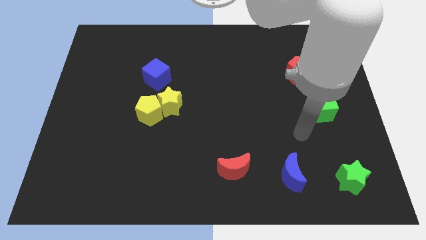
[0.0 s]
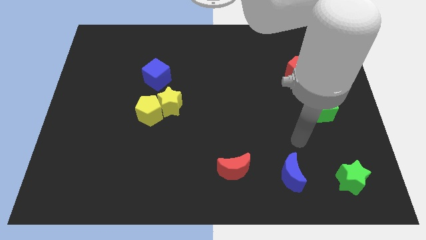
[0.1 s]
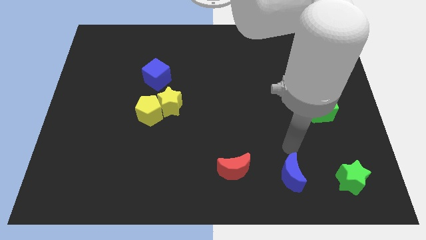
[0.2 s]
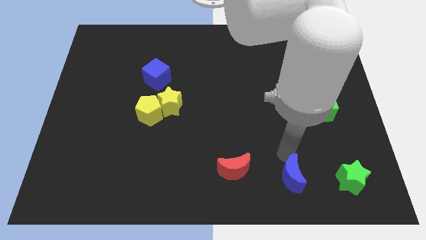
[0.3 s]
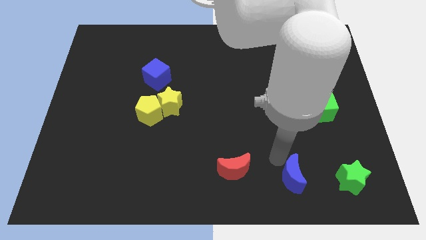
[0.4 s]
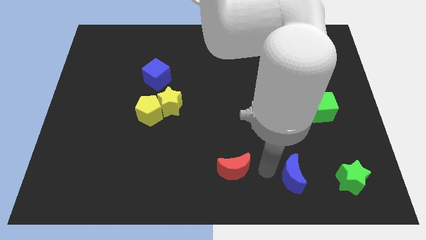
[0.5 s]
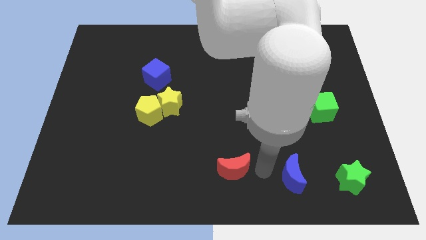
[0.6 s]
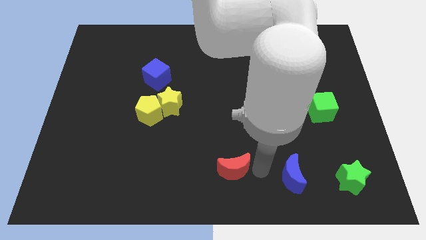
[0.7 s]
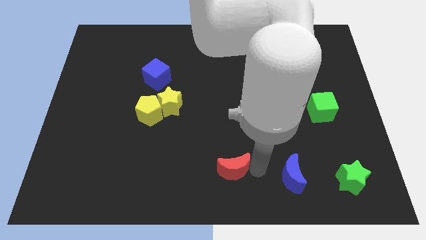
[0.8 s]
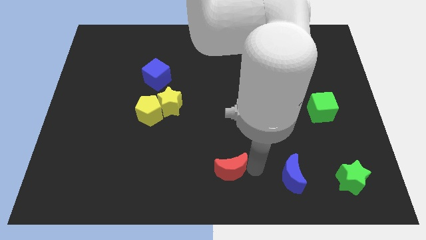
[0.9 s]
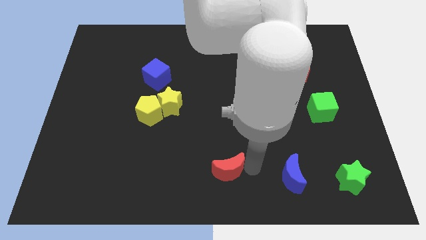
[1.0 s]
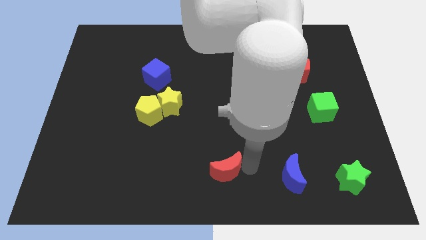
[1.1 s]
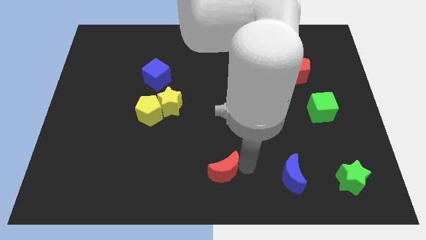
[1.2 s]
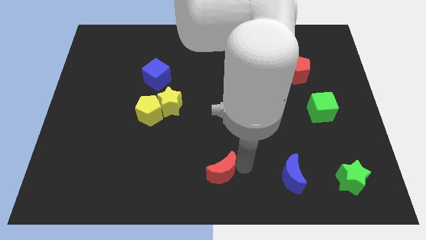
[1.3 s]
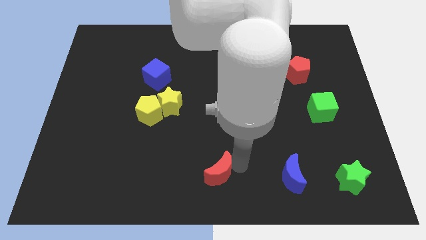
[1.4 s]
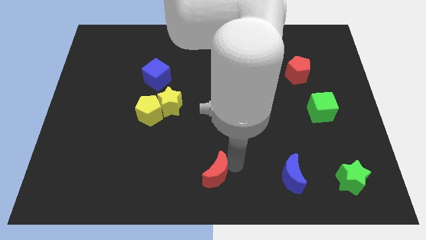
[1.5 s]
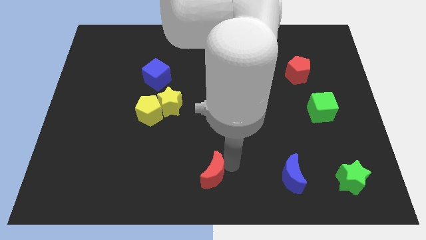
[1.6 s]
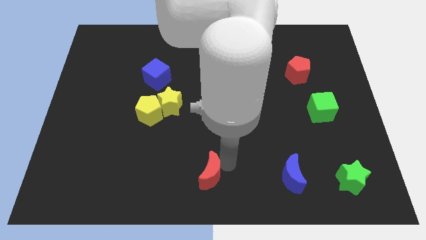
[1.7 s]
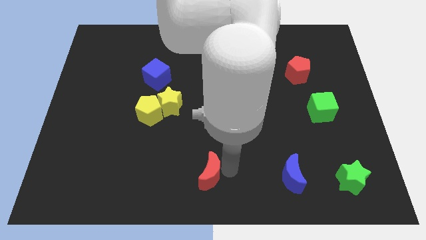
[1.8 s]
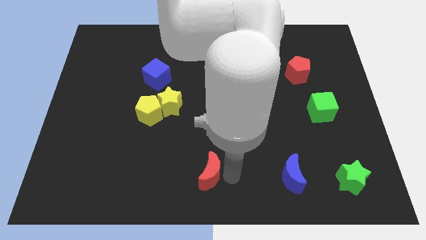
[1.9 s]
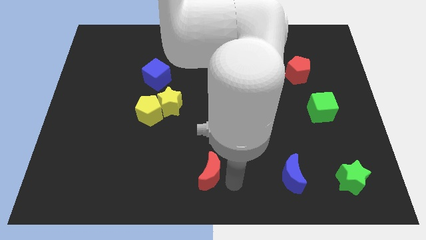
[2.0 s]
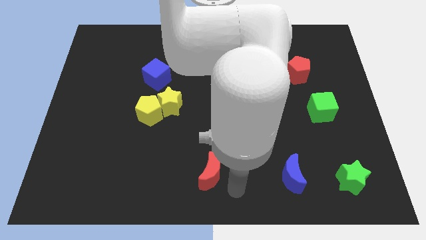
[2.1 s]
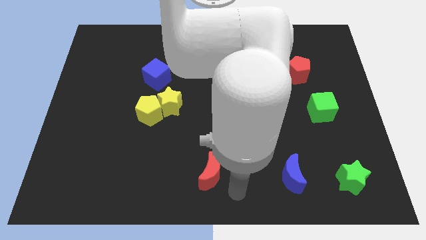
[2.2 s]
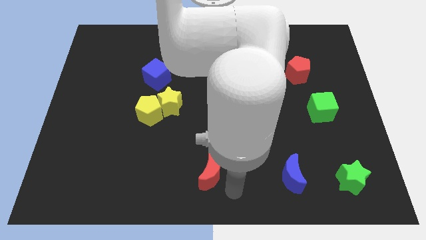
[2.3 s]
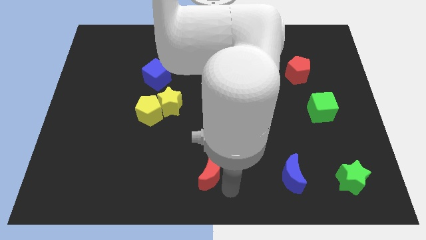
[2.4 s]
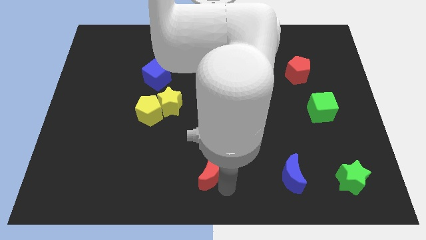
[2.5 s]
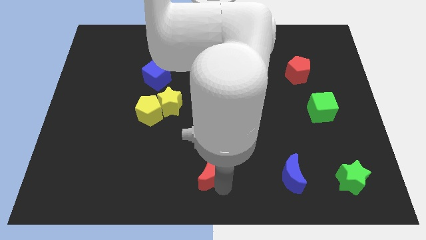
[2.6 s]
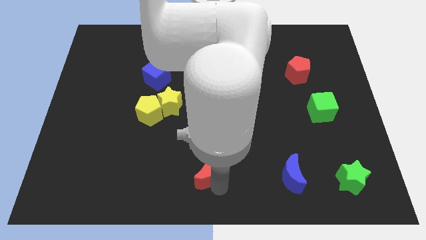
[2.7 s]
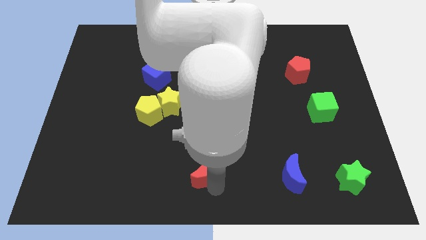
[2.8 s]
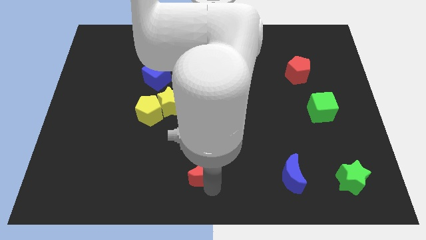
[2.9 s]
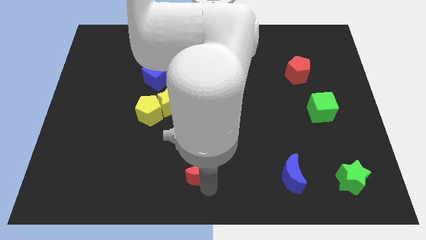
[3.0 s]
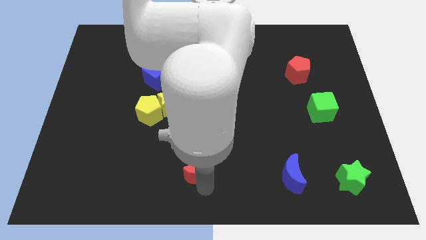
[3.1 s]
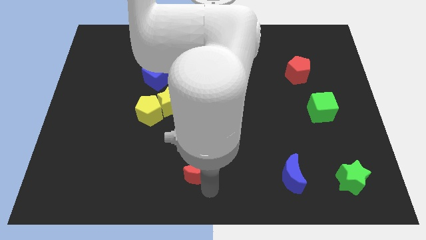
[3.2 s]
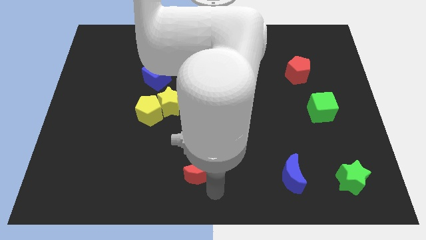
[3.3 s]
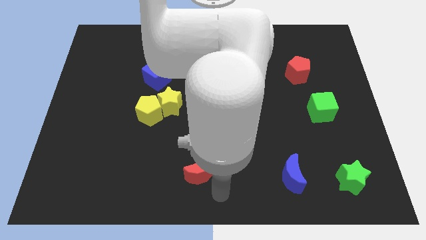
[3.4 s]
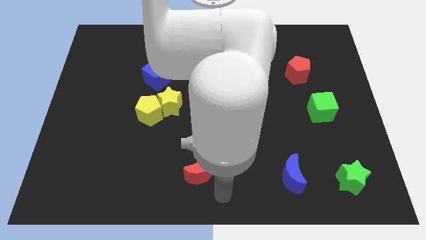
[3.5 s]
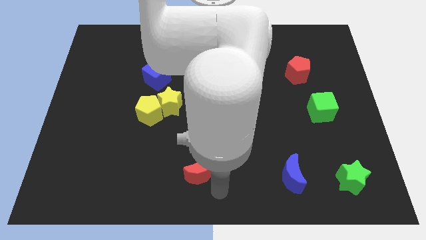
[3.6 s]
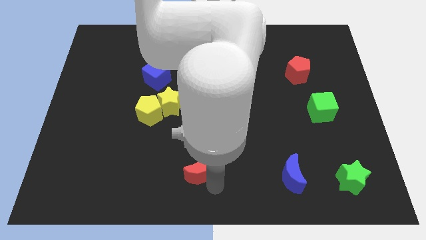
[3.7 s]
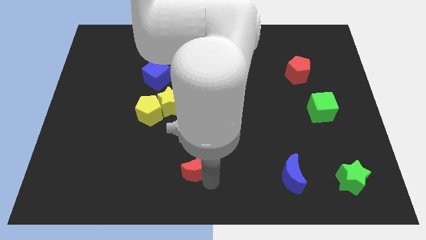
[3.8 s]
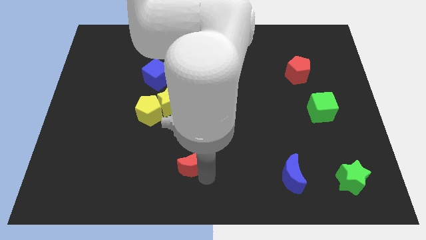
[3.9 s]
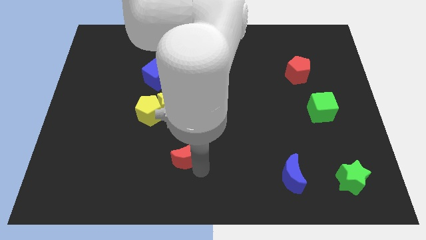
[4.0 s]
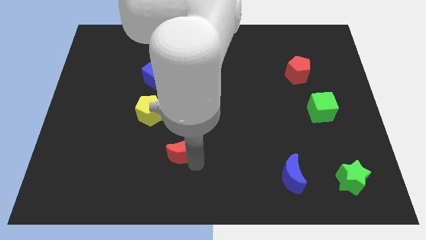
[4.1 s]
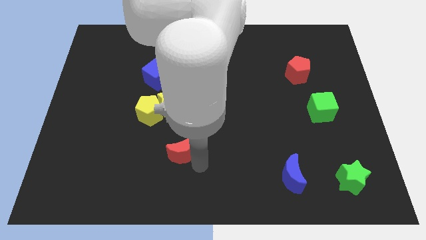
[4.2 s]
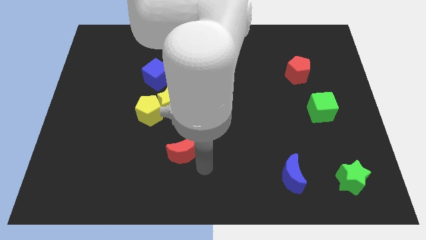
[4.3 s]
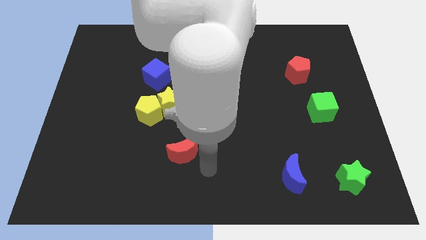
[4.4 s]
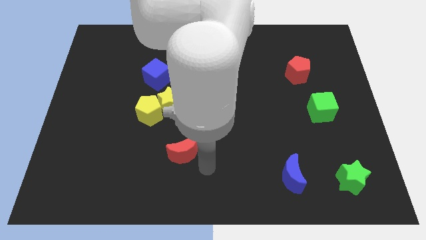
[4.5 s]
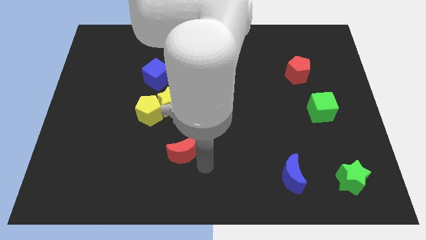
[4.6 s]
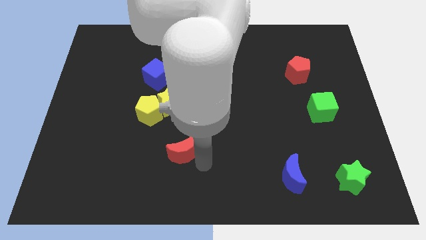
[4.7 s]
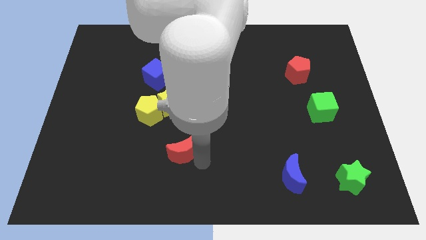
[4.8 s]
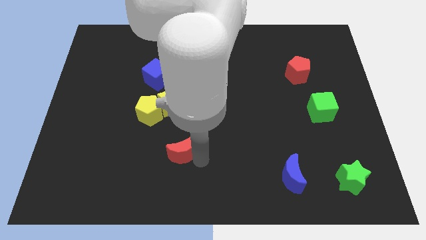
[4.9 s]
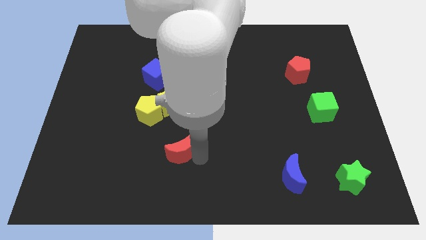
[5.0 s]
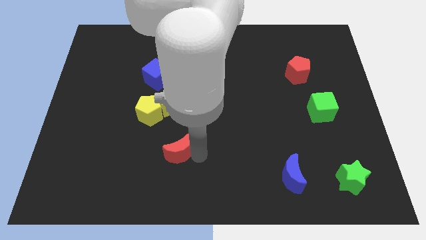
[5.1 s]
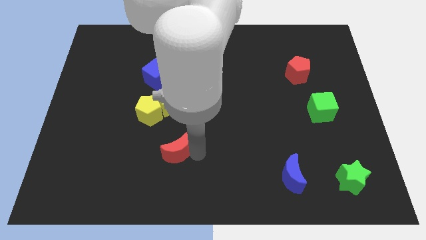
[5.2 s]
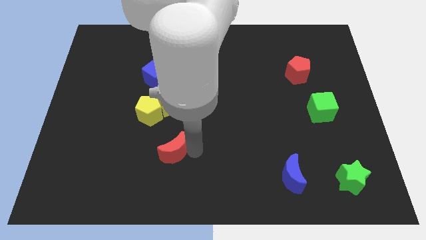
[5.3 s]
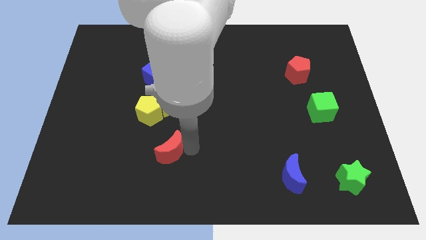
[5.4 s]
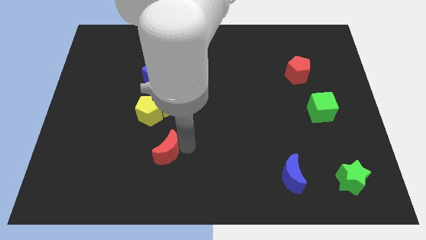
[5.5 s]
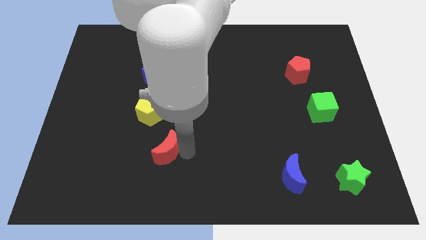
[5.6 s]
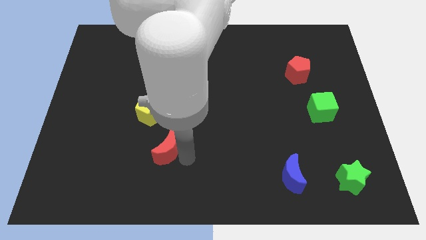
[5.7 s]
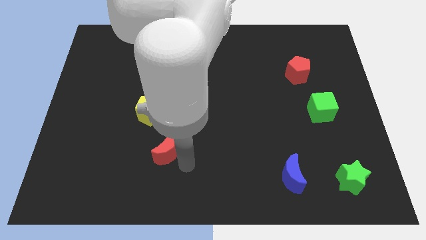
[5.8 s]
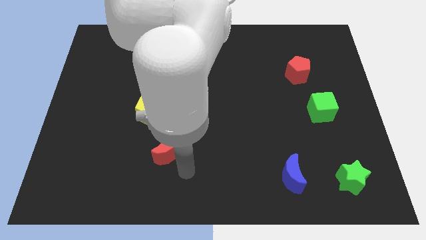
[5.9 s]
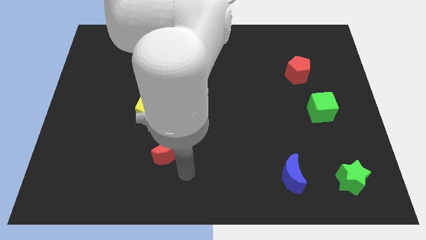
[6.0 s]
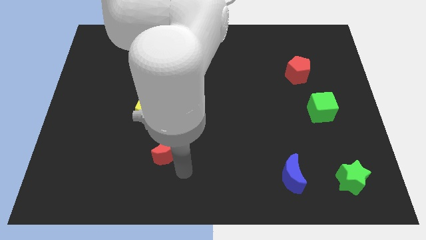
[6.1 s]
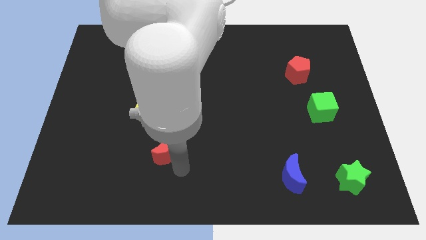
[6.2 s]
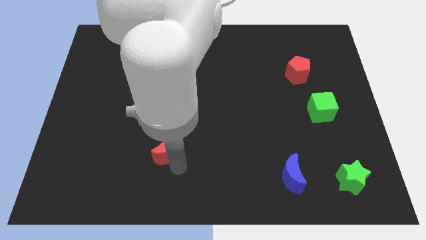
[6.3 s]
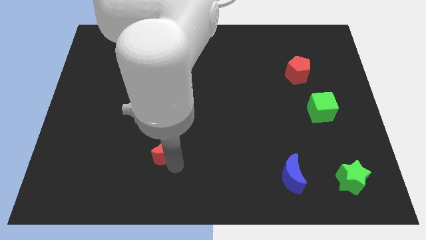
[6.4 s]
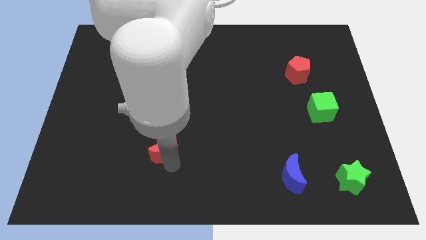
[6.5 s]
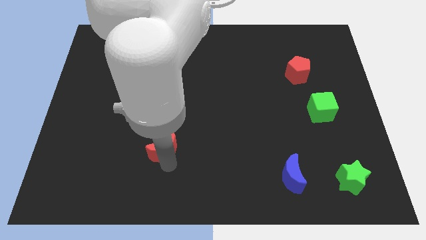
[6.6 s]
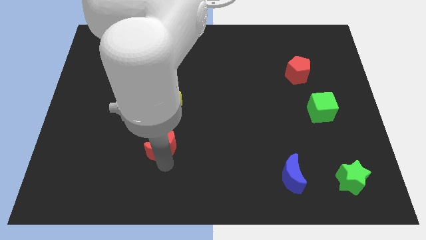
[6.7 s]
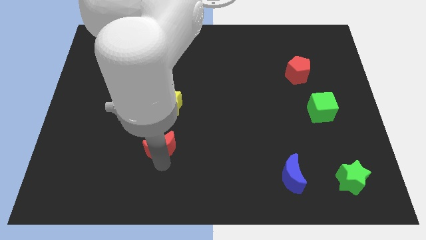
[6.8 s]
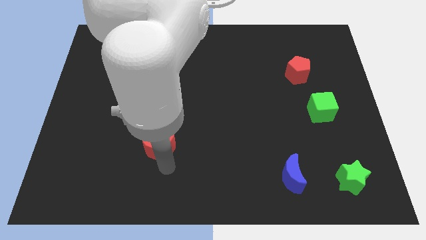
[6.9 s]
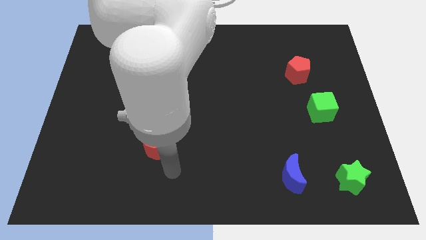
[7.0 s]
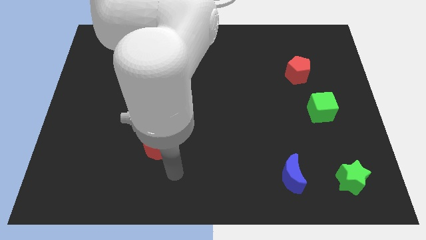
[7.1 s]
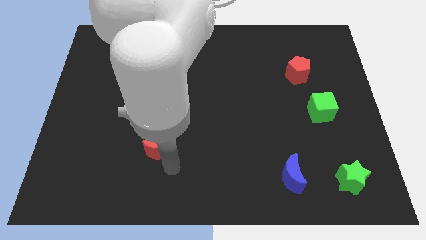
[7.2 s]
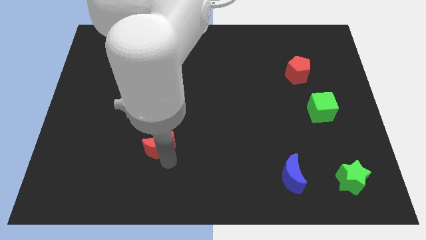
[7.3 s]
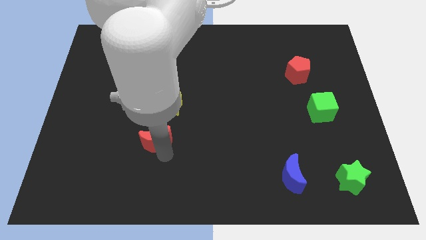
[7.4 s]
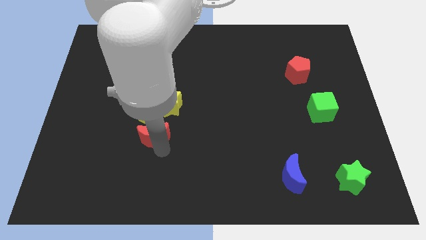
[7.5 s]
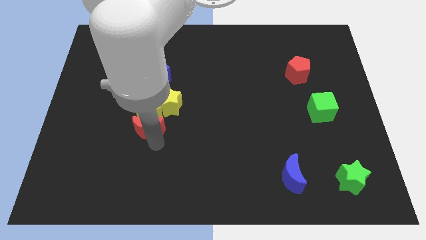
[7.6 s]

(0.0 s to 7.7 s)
move the red moon below the blue cube
